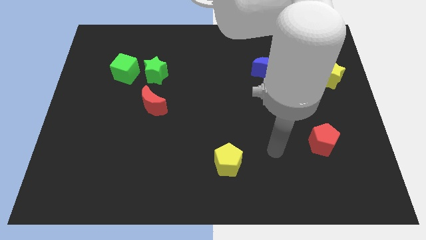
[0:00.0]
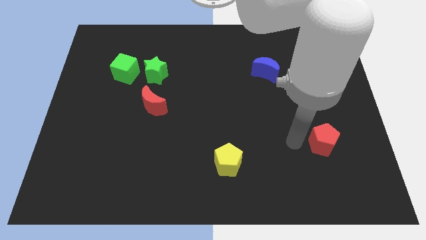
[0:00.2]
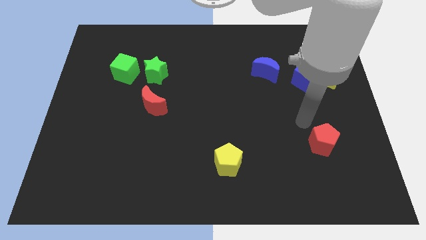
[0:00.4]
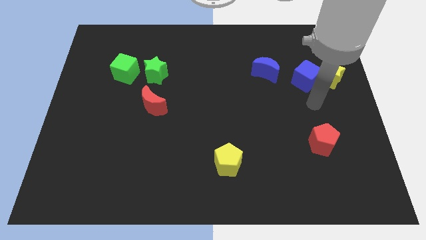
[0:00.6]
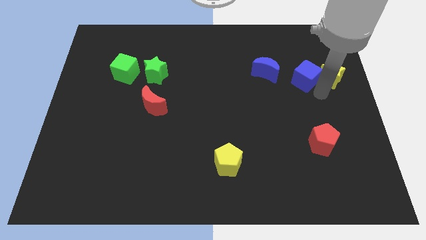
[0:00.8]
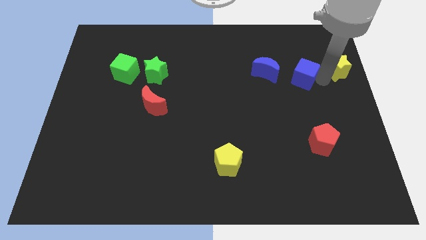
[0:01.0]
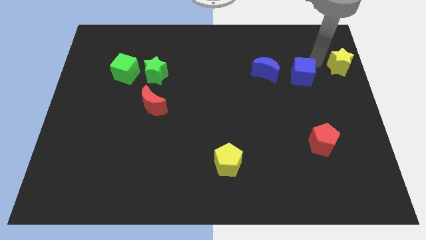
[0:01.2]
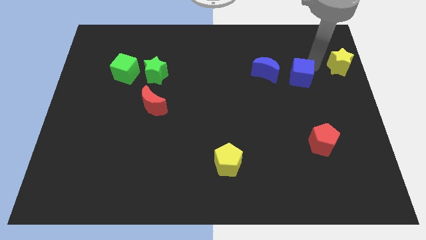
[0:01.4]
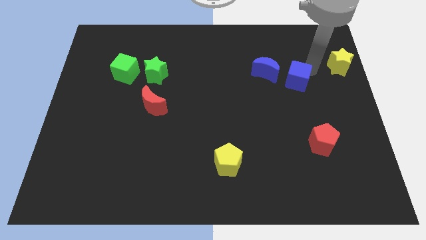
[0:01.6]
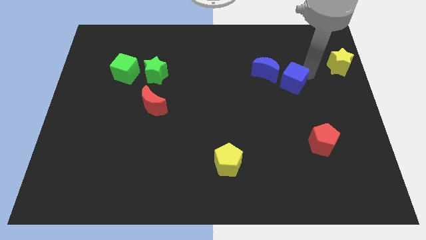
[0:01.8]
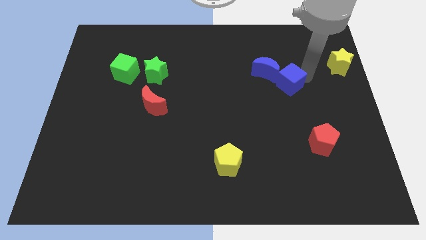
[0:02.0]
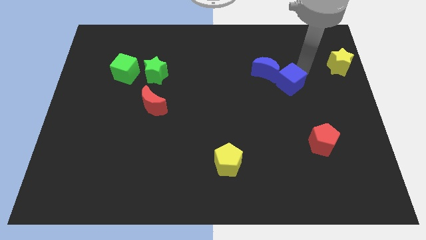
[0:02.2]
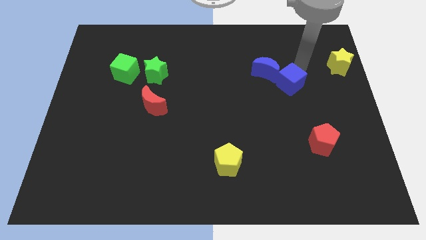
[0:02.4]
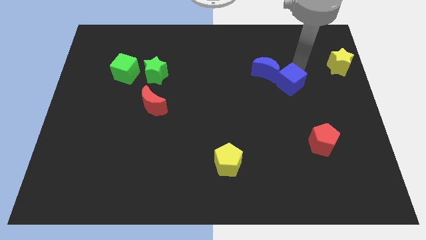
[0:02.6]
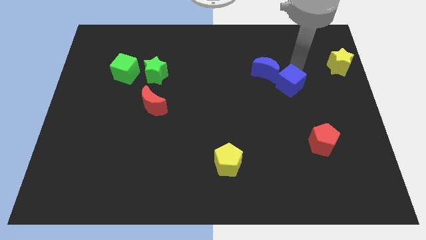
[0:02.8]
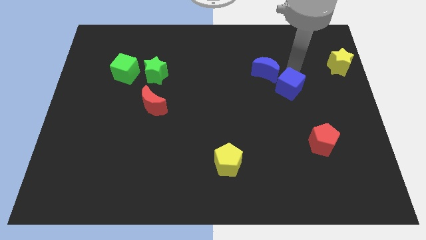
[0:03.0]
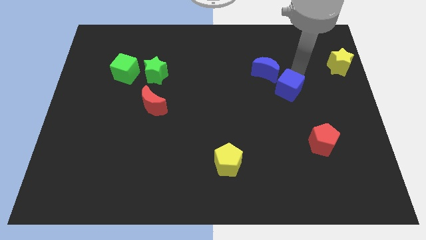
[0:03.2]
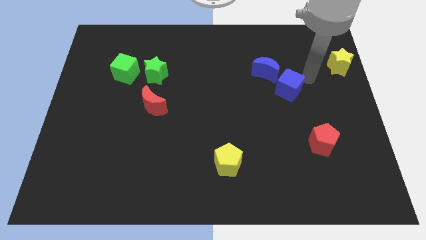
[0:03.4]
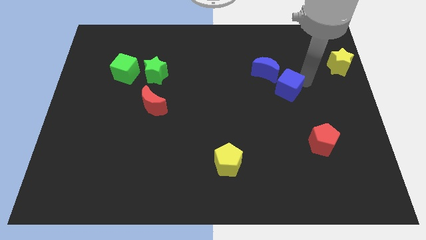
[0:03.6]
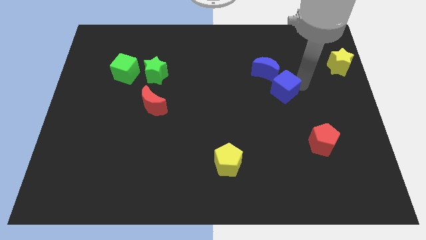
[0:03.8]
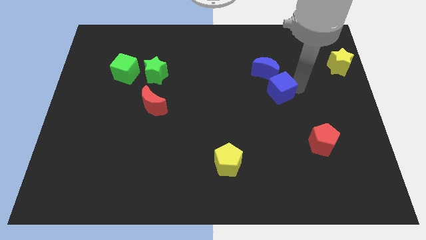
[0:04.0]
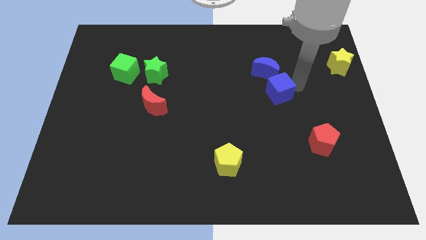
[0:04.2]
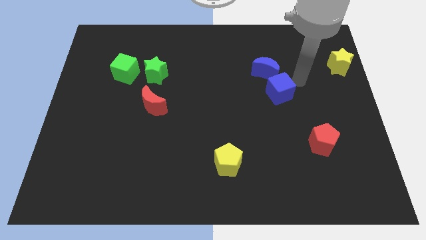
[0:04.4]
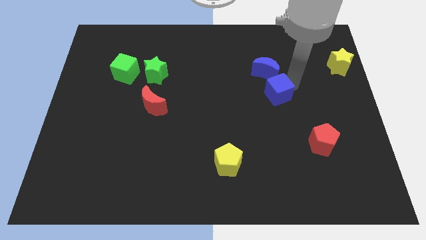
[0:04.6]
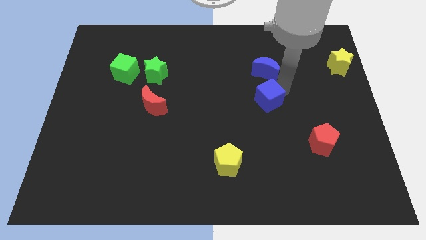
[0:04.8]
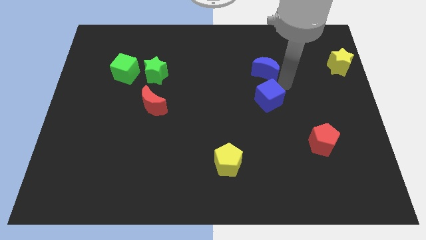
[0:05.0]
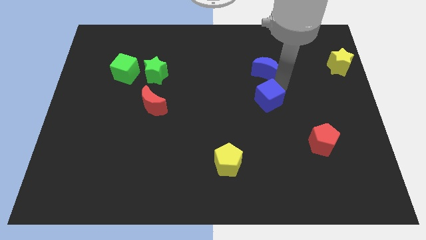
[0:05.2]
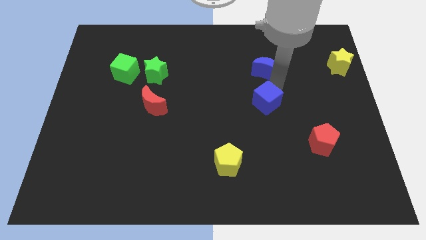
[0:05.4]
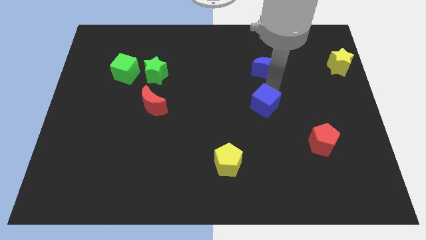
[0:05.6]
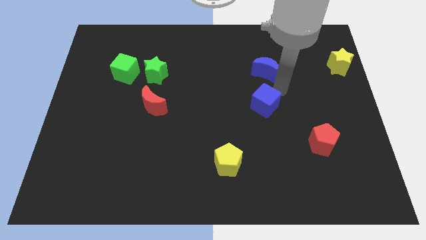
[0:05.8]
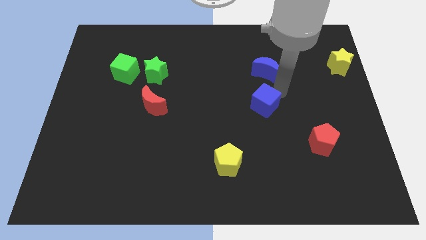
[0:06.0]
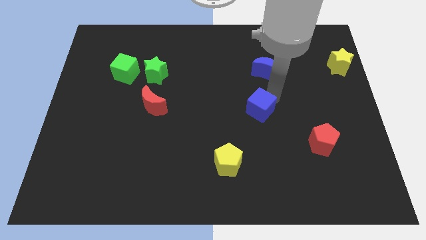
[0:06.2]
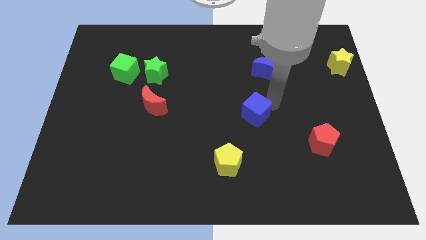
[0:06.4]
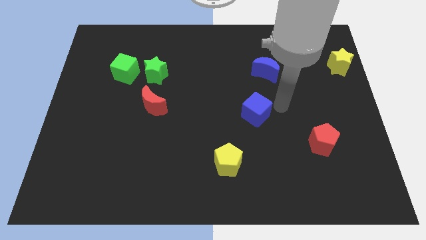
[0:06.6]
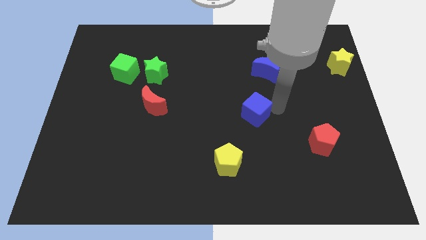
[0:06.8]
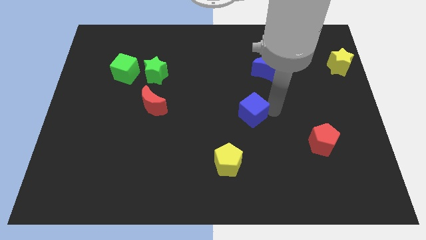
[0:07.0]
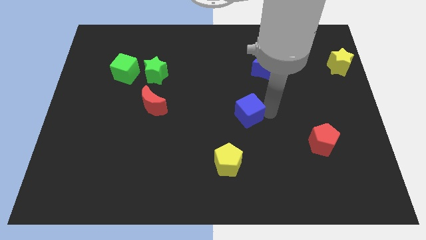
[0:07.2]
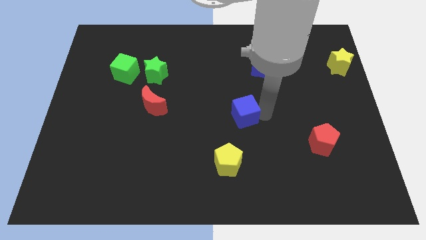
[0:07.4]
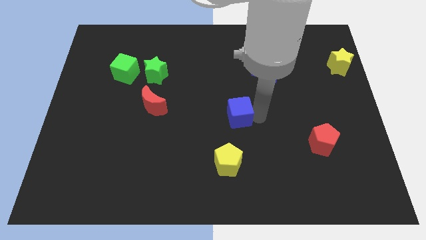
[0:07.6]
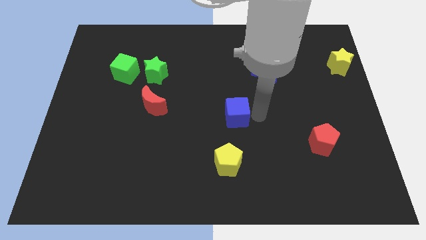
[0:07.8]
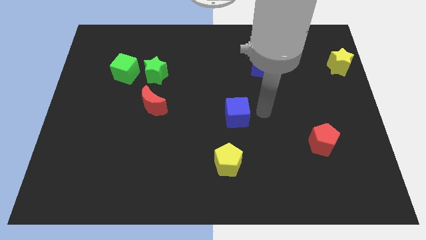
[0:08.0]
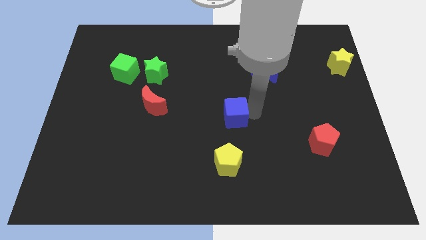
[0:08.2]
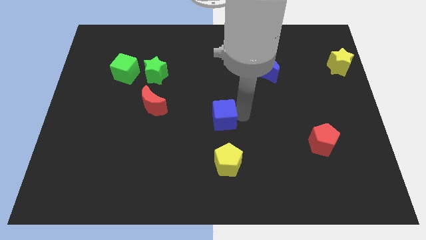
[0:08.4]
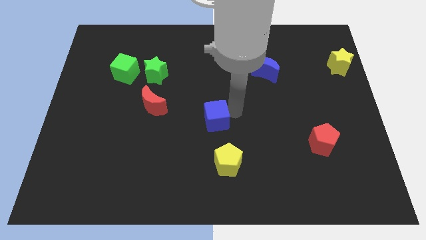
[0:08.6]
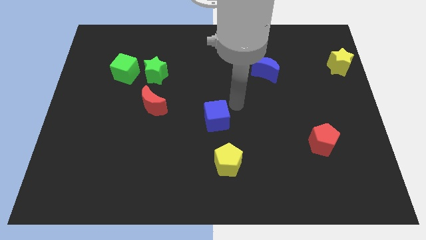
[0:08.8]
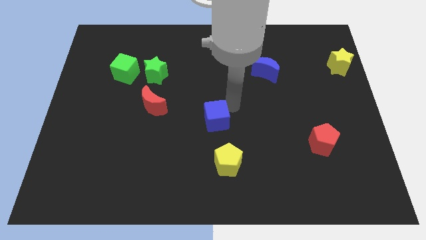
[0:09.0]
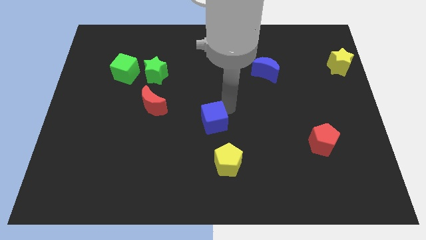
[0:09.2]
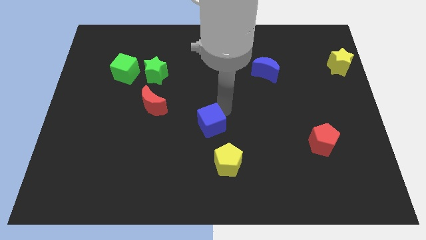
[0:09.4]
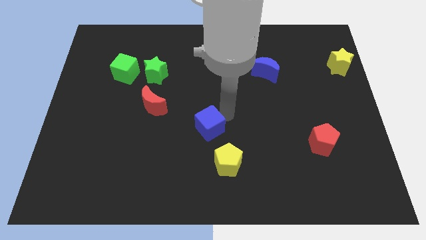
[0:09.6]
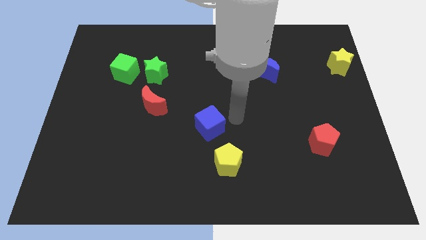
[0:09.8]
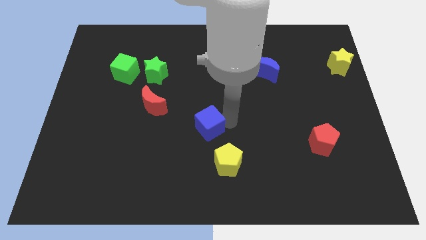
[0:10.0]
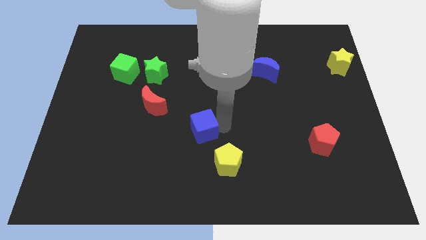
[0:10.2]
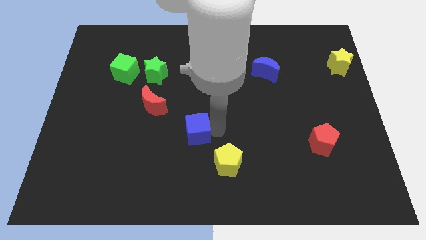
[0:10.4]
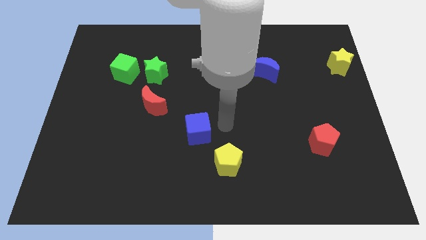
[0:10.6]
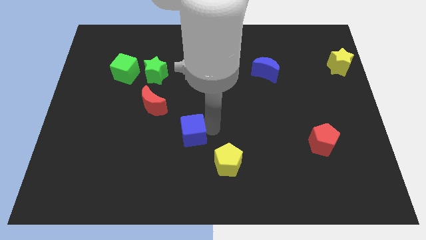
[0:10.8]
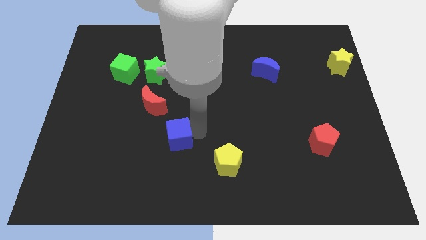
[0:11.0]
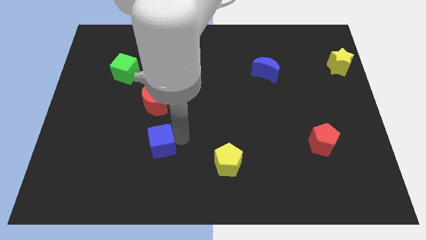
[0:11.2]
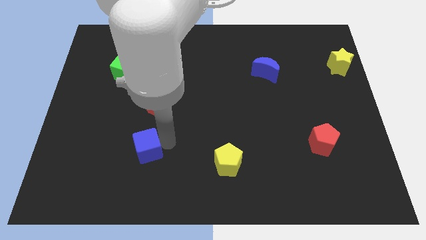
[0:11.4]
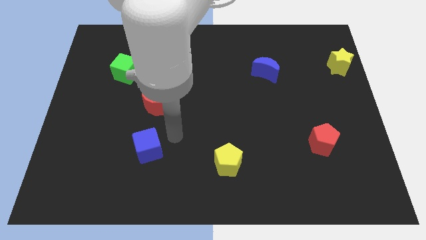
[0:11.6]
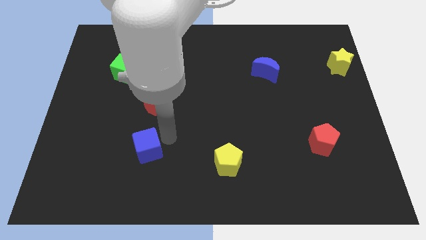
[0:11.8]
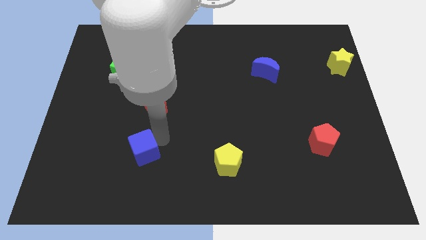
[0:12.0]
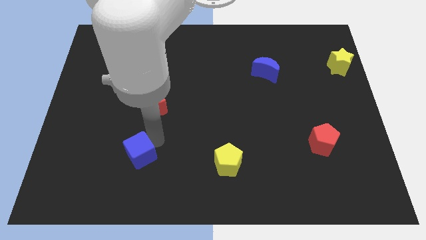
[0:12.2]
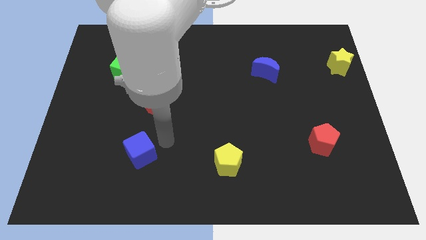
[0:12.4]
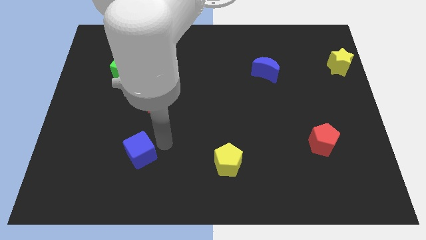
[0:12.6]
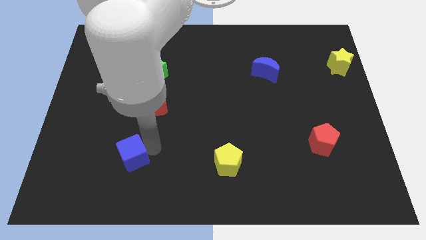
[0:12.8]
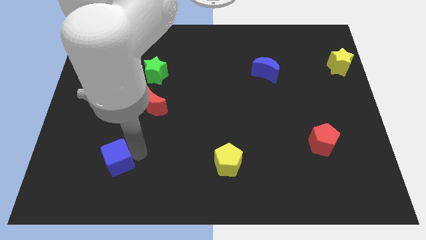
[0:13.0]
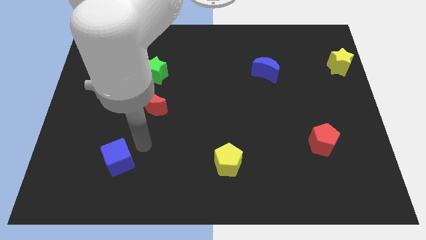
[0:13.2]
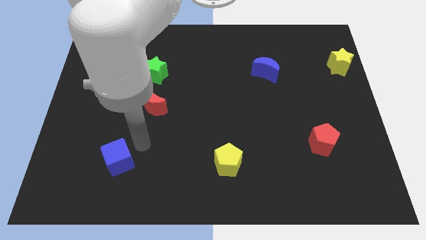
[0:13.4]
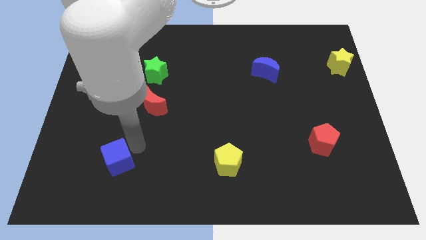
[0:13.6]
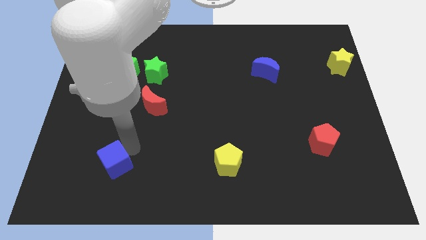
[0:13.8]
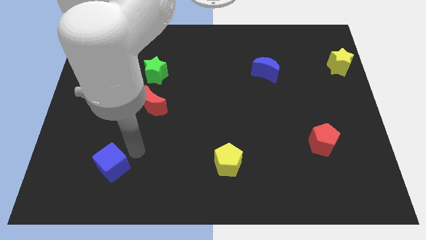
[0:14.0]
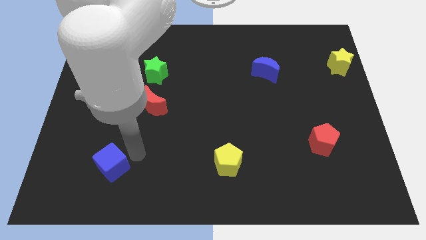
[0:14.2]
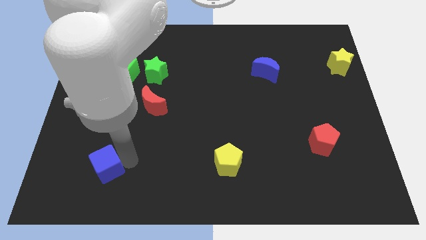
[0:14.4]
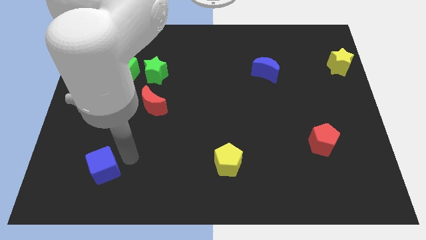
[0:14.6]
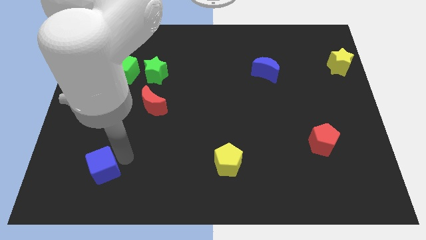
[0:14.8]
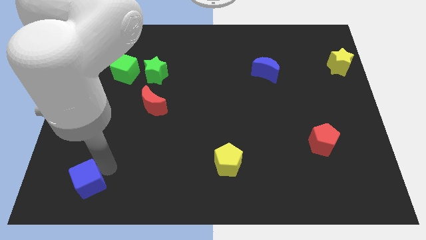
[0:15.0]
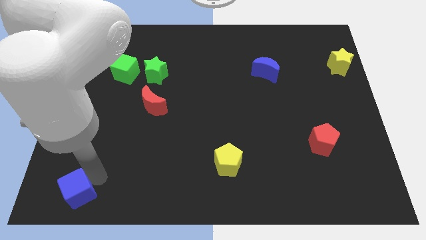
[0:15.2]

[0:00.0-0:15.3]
move the blue cube to the bottom left
